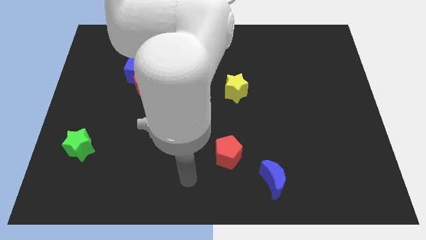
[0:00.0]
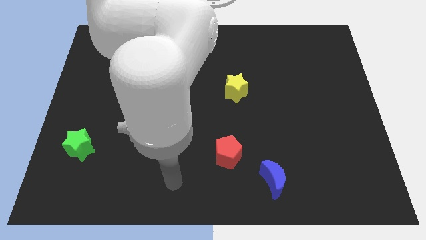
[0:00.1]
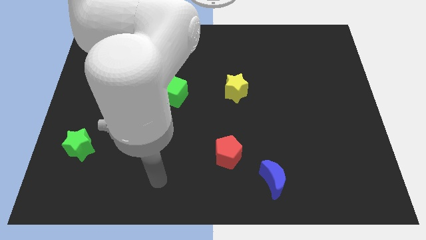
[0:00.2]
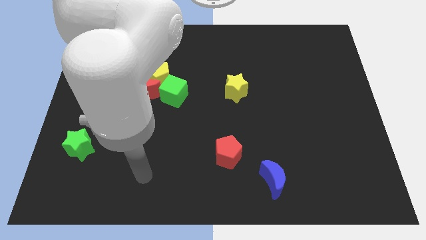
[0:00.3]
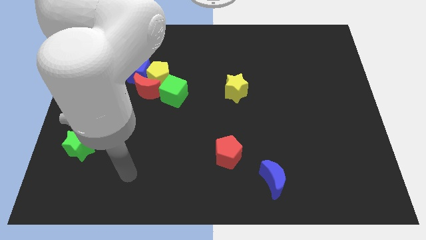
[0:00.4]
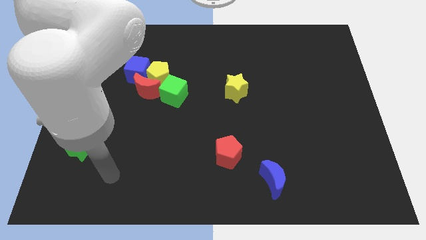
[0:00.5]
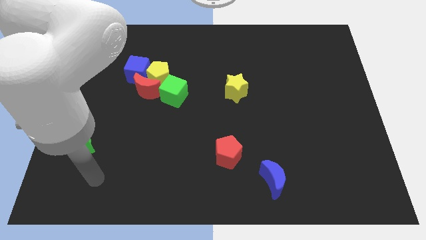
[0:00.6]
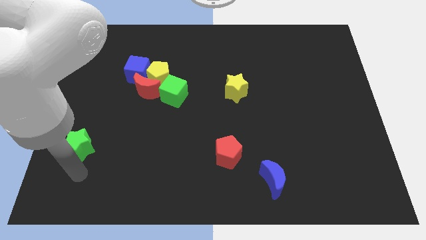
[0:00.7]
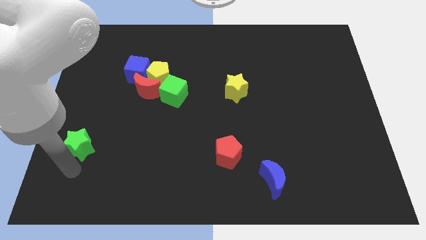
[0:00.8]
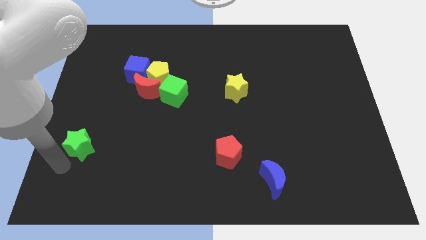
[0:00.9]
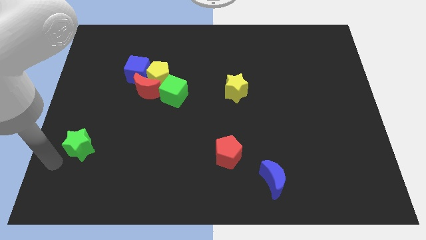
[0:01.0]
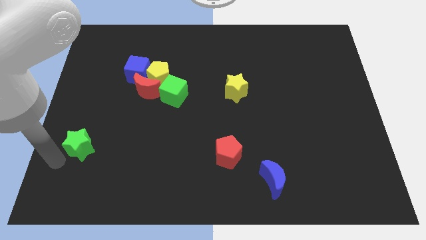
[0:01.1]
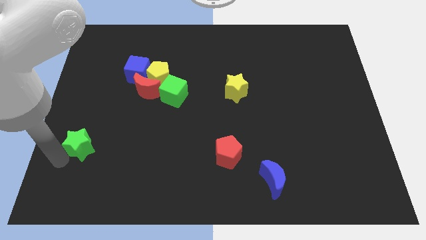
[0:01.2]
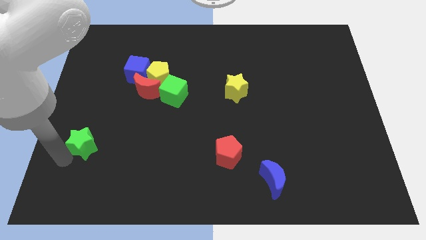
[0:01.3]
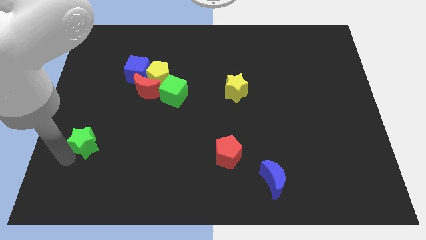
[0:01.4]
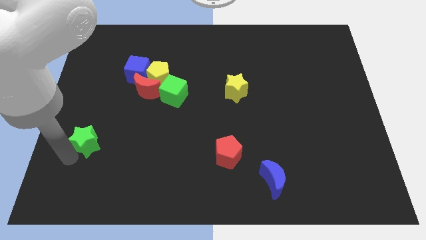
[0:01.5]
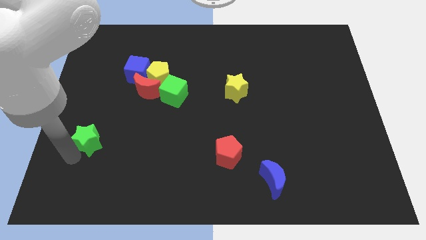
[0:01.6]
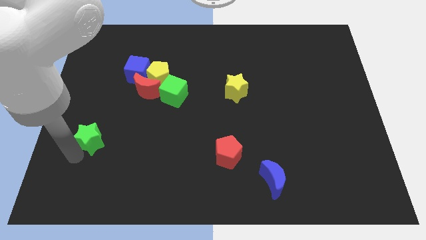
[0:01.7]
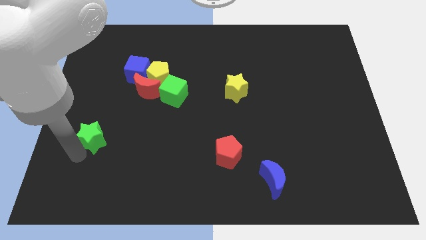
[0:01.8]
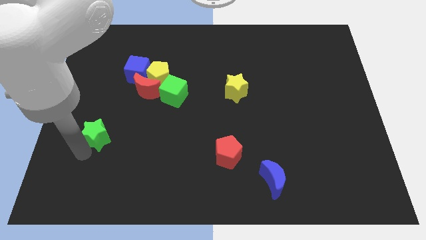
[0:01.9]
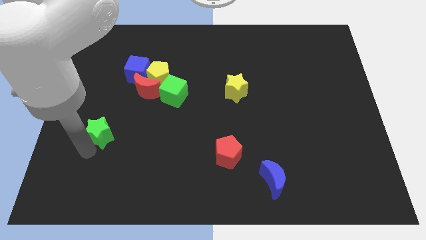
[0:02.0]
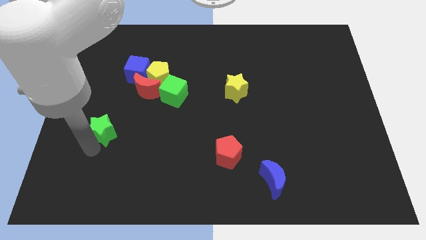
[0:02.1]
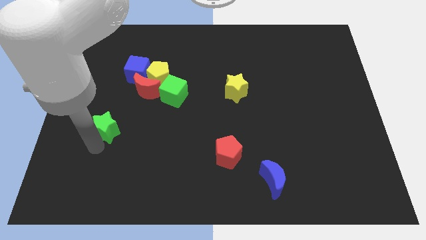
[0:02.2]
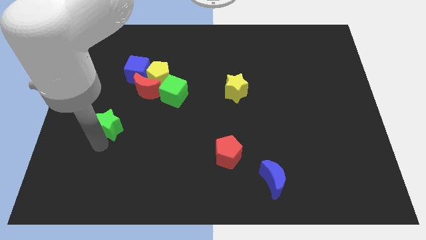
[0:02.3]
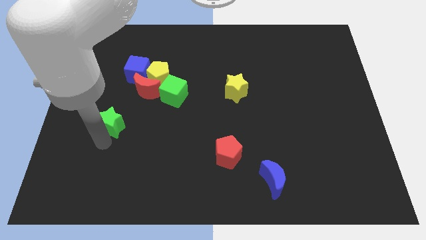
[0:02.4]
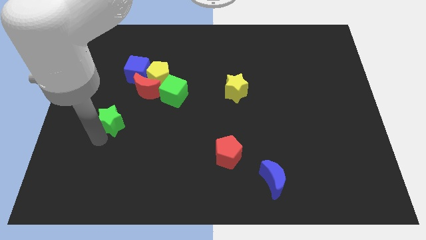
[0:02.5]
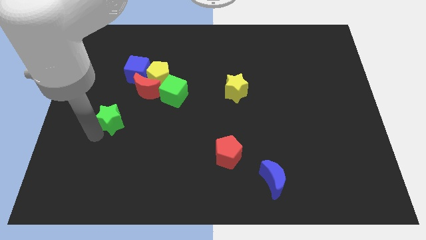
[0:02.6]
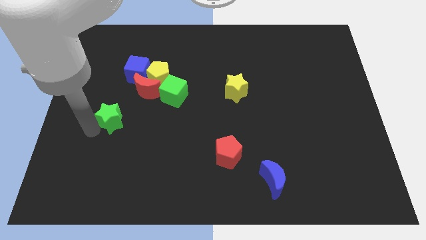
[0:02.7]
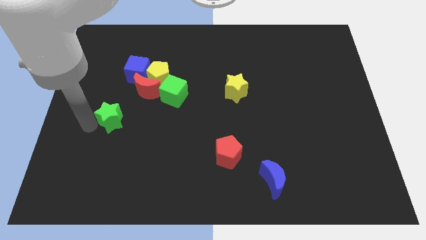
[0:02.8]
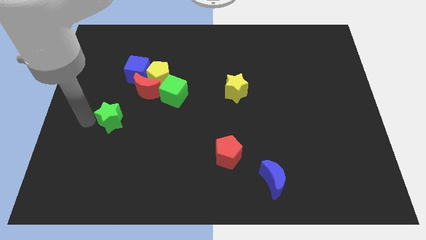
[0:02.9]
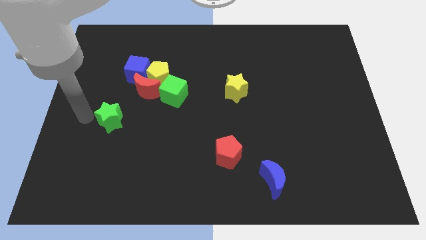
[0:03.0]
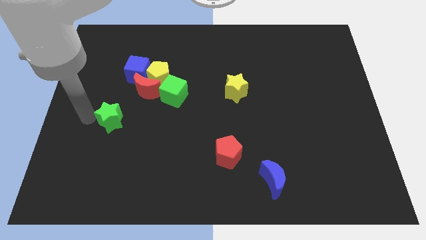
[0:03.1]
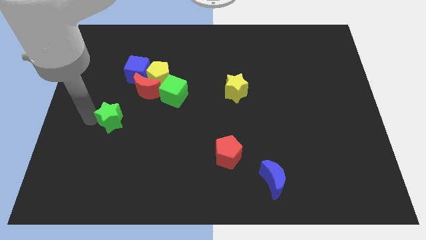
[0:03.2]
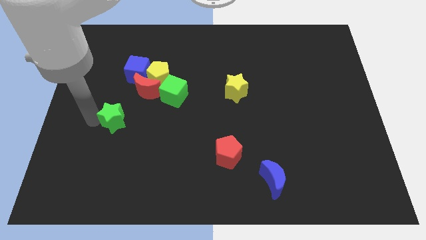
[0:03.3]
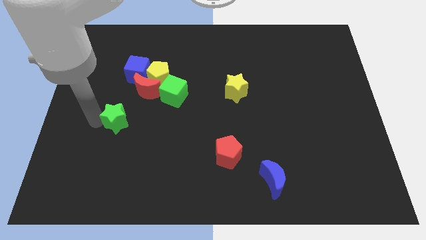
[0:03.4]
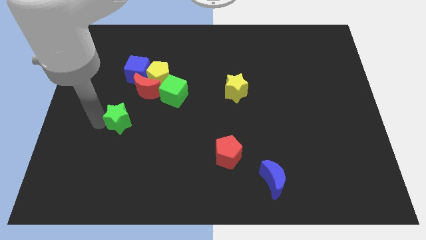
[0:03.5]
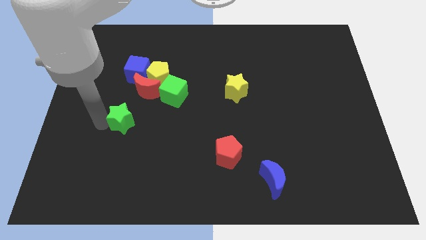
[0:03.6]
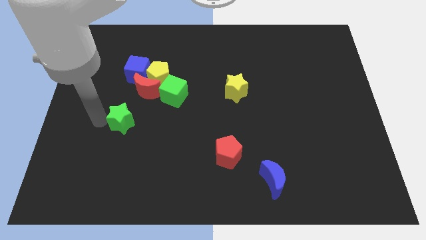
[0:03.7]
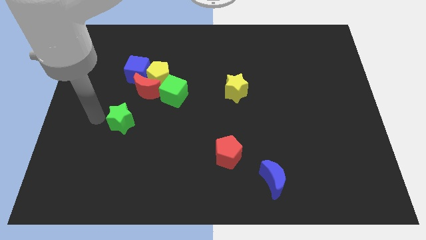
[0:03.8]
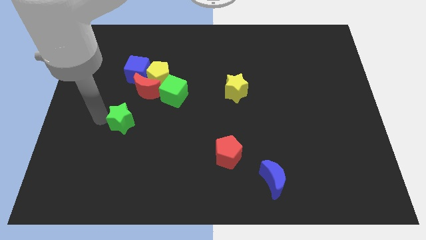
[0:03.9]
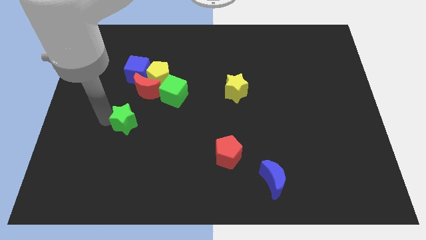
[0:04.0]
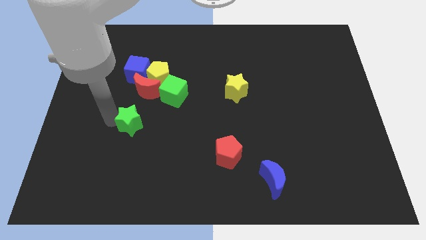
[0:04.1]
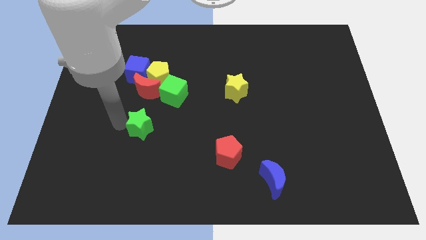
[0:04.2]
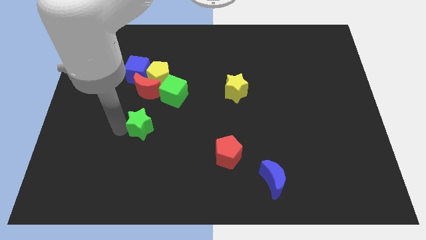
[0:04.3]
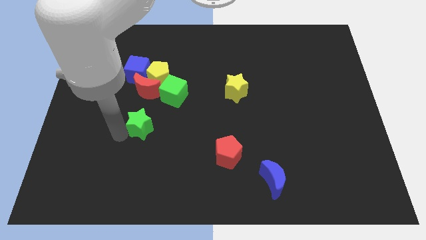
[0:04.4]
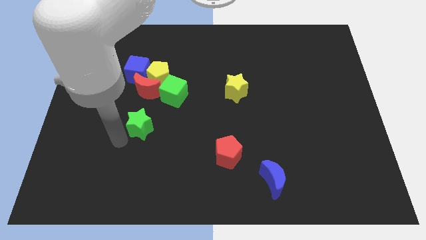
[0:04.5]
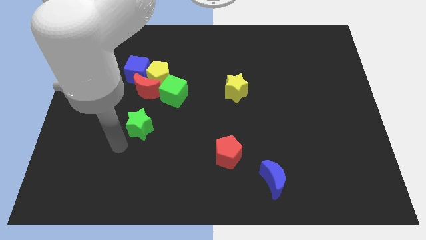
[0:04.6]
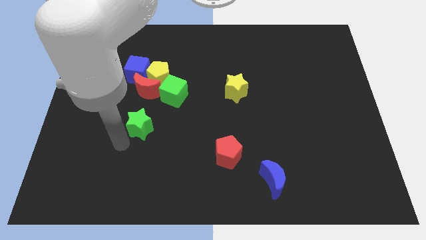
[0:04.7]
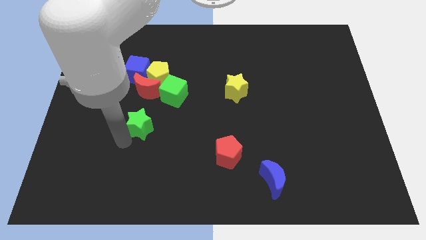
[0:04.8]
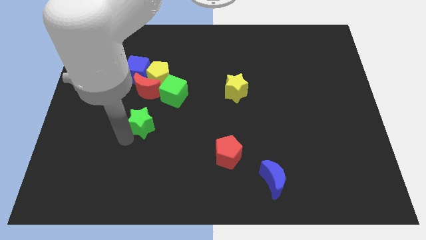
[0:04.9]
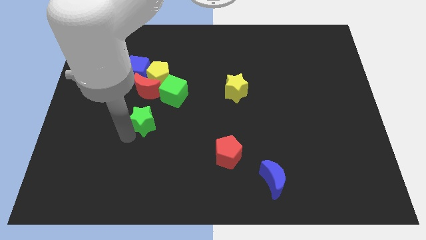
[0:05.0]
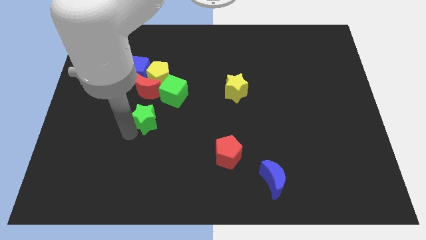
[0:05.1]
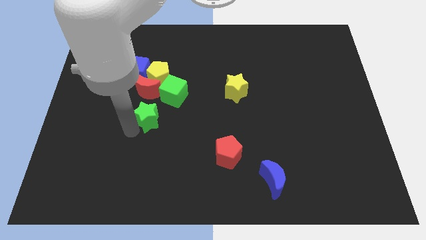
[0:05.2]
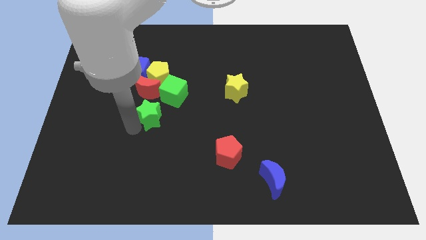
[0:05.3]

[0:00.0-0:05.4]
move the green star to the bottom right side of the red moon

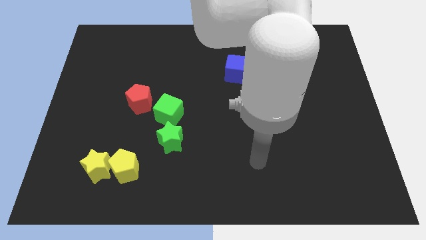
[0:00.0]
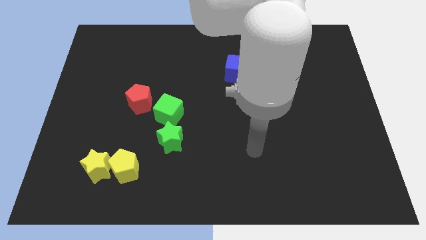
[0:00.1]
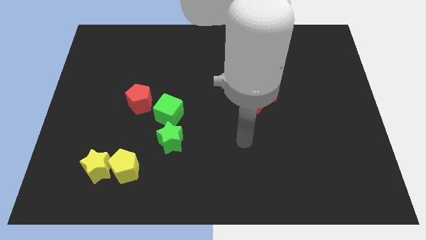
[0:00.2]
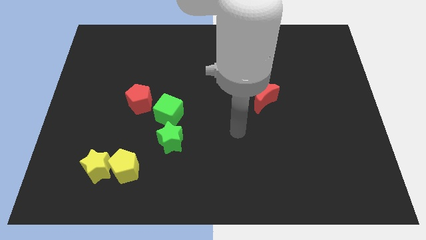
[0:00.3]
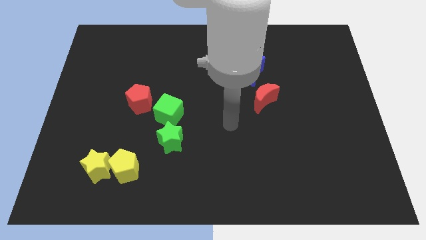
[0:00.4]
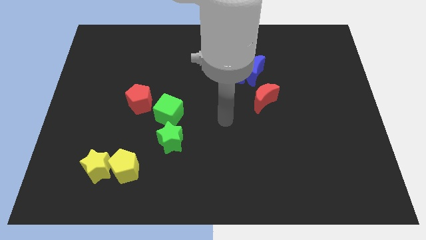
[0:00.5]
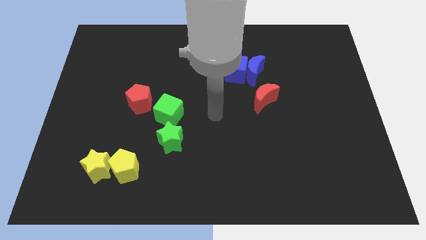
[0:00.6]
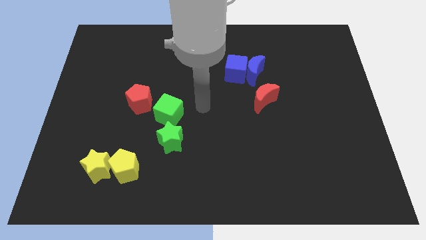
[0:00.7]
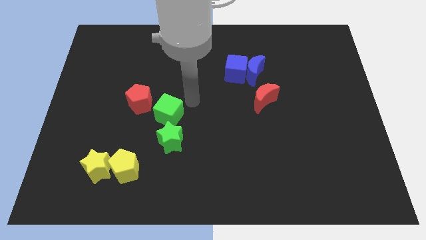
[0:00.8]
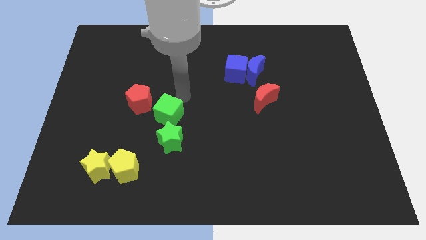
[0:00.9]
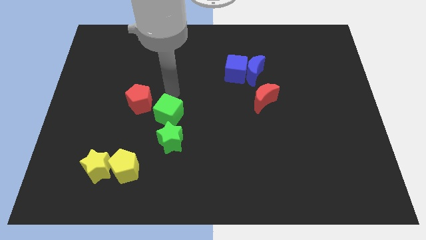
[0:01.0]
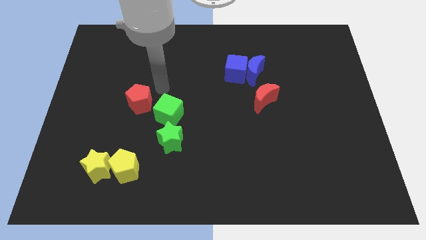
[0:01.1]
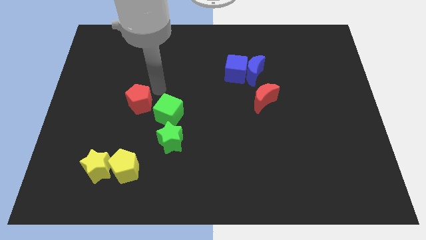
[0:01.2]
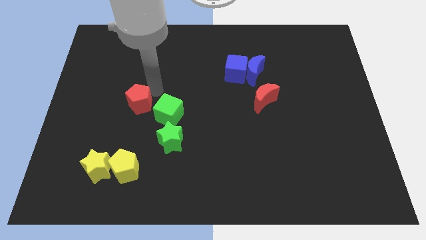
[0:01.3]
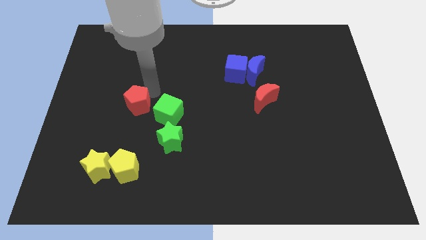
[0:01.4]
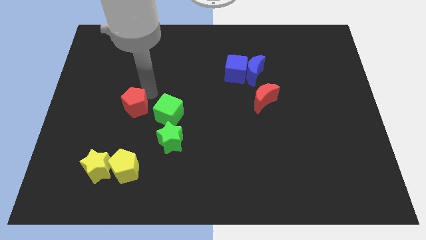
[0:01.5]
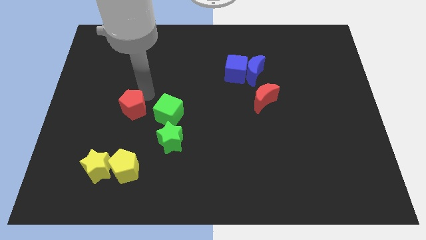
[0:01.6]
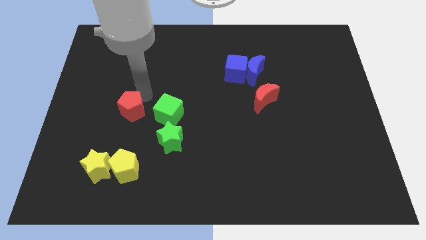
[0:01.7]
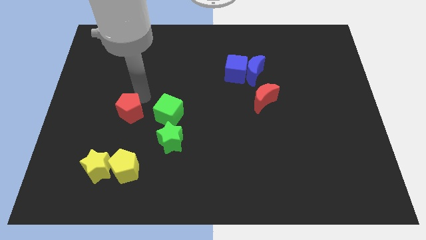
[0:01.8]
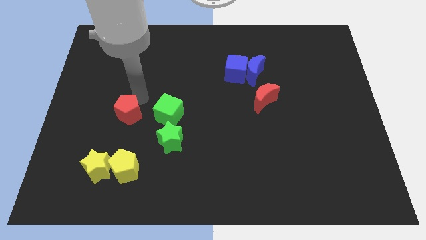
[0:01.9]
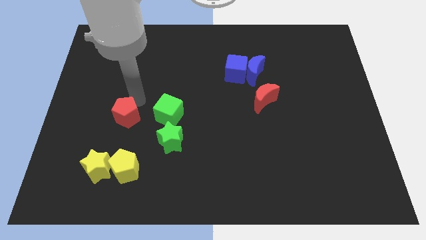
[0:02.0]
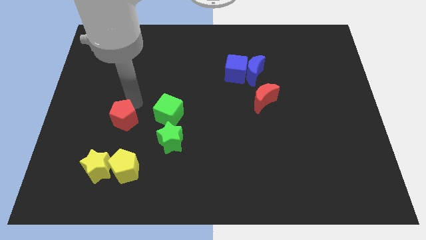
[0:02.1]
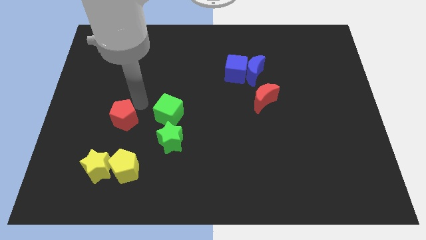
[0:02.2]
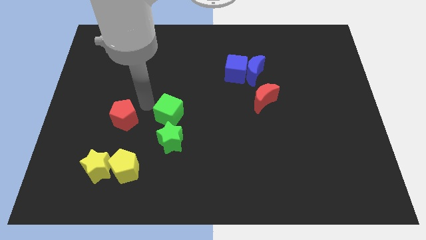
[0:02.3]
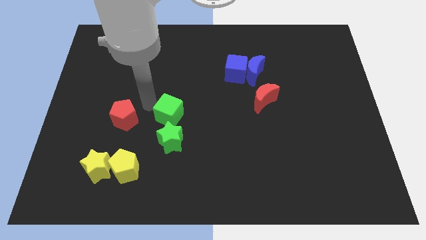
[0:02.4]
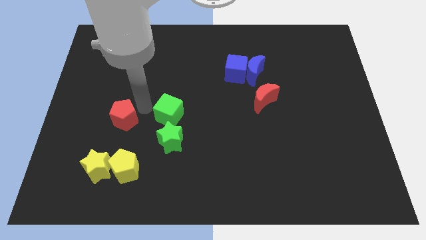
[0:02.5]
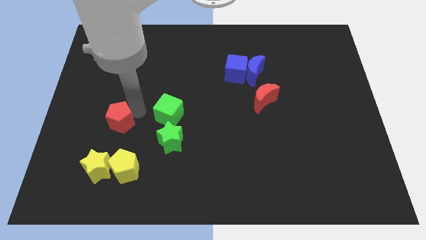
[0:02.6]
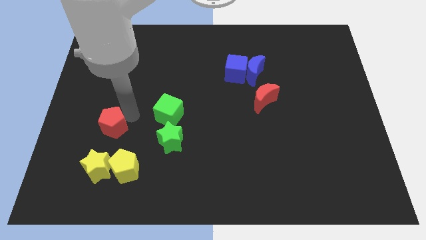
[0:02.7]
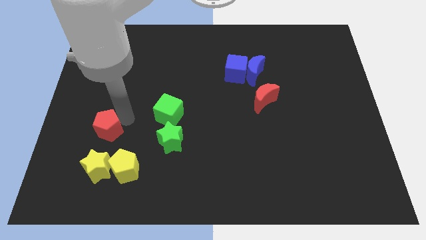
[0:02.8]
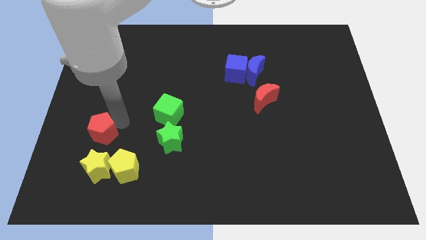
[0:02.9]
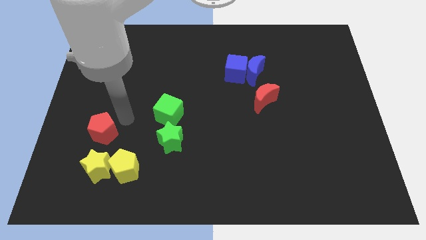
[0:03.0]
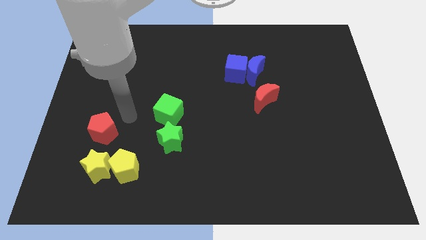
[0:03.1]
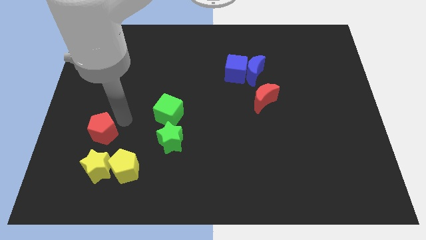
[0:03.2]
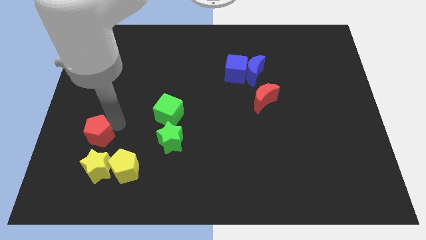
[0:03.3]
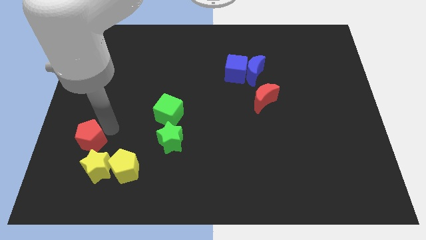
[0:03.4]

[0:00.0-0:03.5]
push the red pentagon diagonally up and to the left of the yellow star

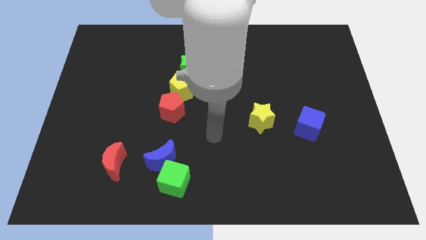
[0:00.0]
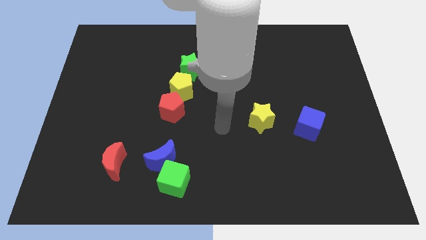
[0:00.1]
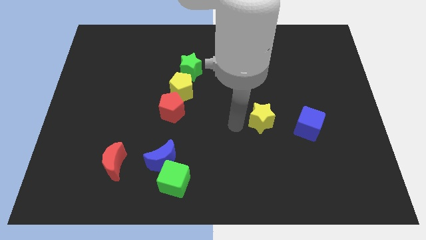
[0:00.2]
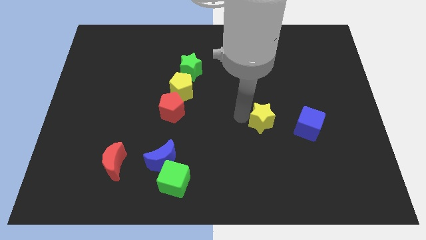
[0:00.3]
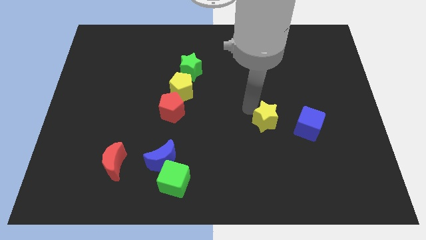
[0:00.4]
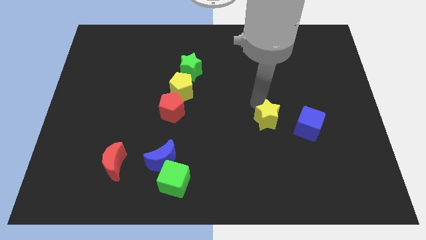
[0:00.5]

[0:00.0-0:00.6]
push the blue cube diagonally down and to the right of the yellow star
